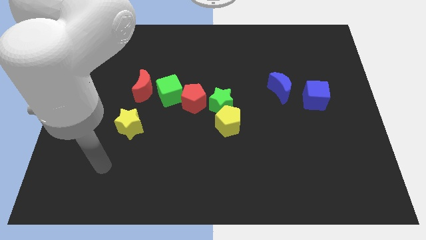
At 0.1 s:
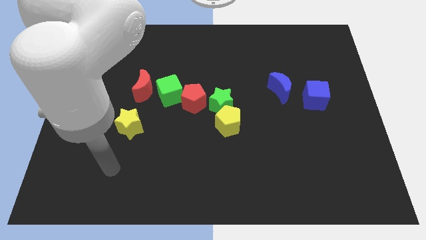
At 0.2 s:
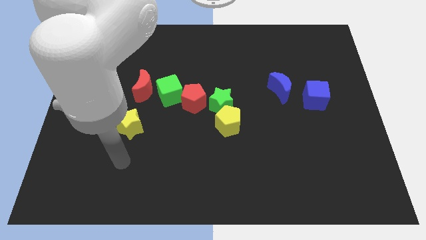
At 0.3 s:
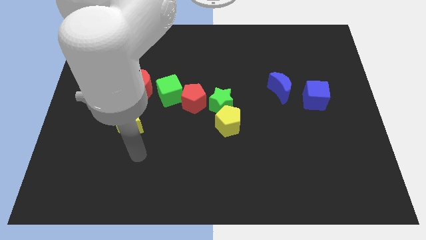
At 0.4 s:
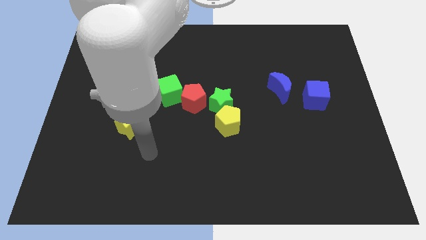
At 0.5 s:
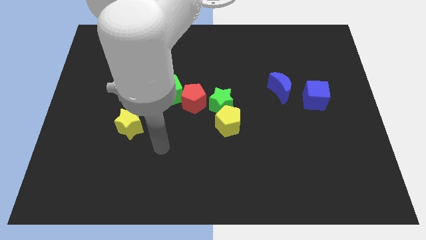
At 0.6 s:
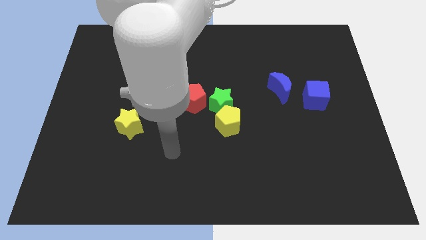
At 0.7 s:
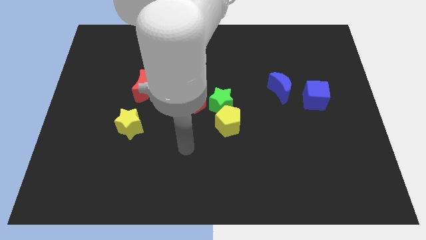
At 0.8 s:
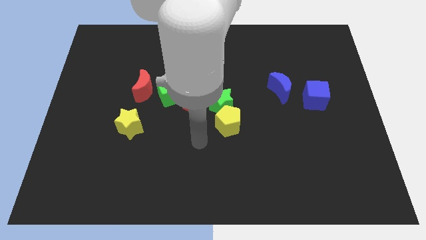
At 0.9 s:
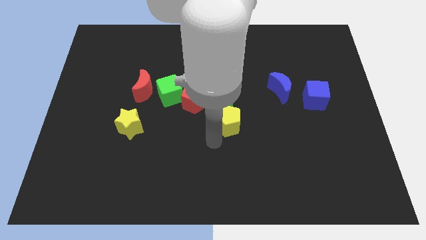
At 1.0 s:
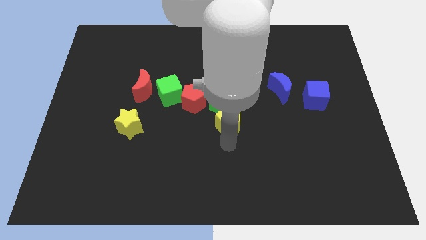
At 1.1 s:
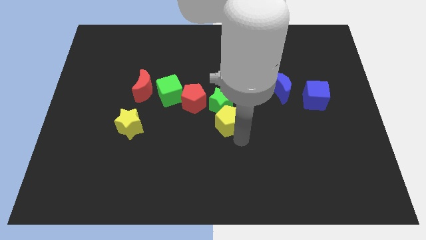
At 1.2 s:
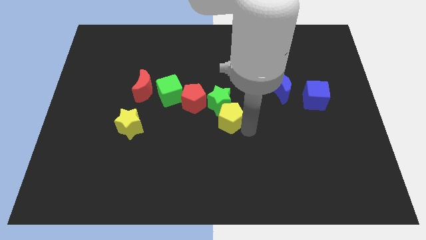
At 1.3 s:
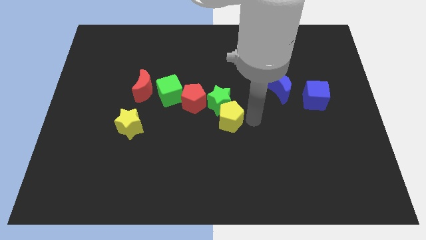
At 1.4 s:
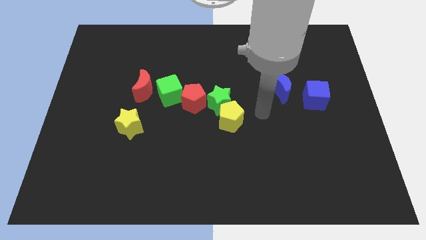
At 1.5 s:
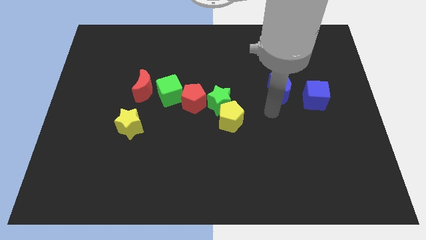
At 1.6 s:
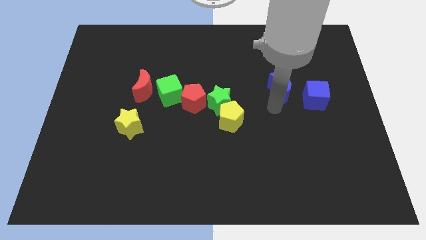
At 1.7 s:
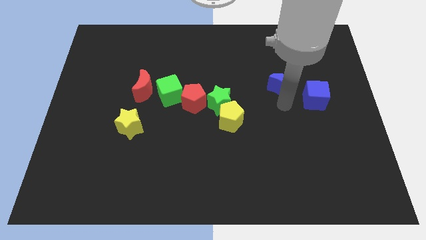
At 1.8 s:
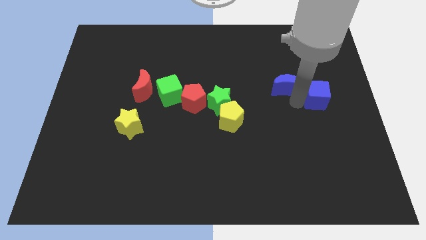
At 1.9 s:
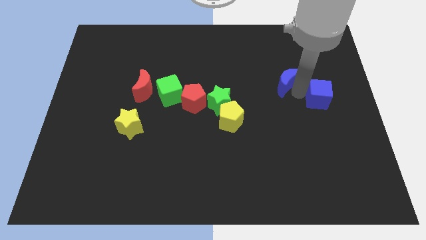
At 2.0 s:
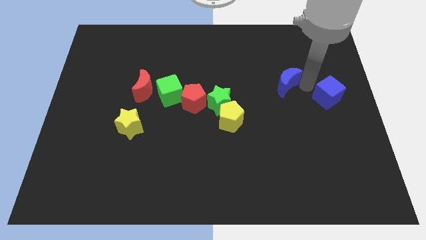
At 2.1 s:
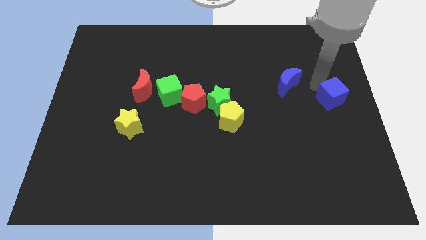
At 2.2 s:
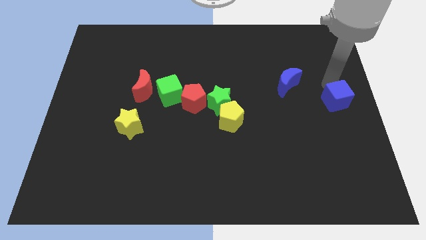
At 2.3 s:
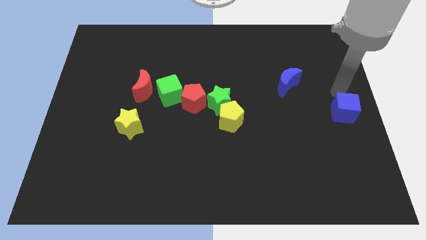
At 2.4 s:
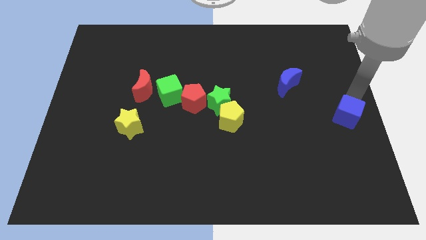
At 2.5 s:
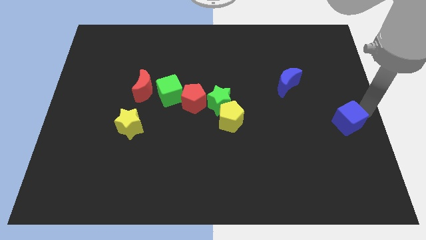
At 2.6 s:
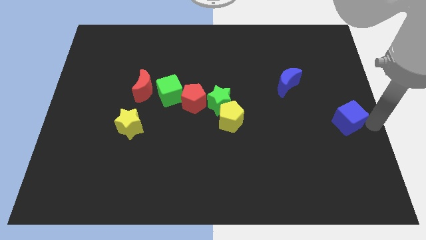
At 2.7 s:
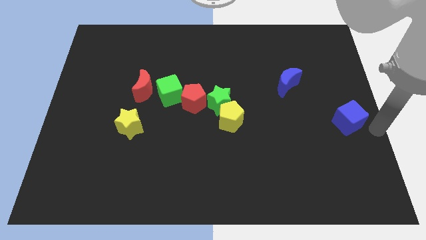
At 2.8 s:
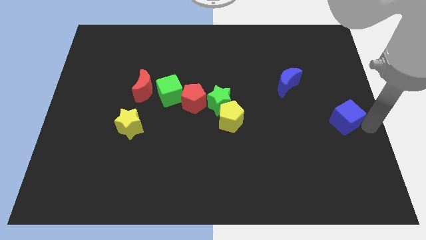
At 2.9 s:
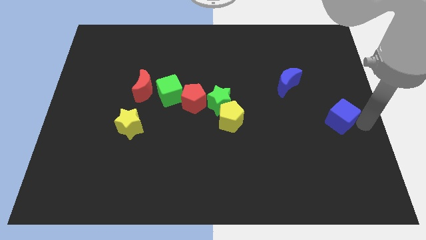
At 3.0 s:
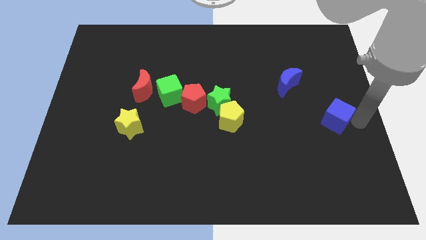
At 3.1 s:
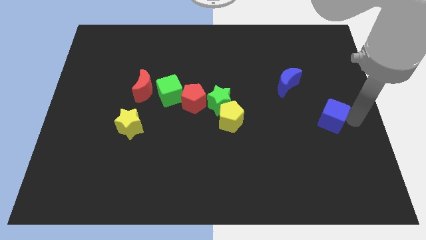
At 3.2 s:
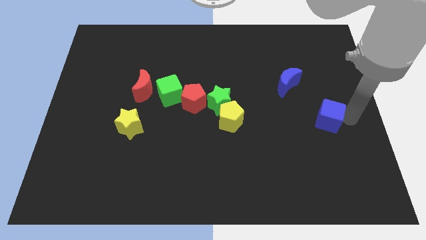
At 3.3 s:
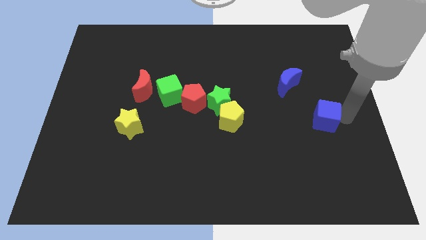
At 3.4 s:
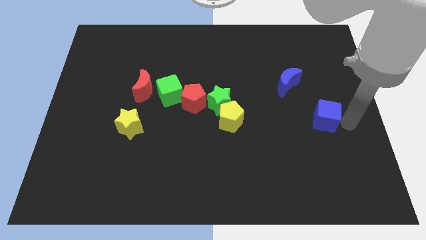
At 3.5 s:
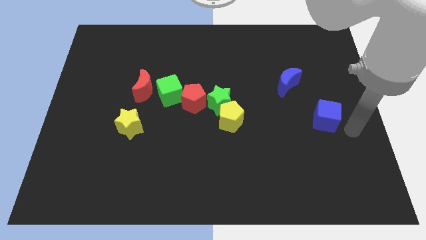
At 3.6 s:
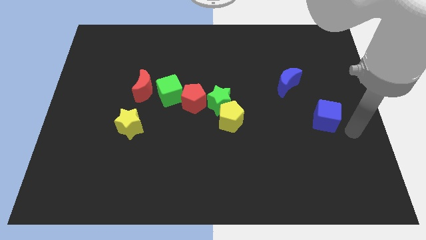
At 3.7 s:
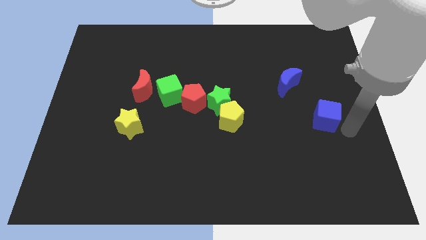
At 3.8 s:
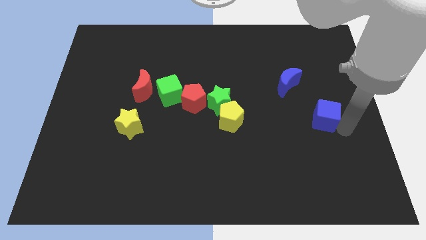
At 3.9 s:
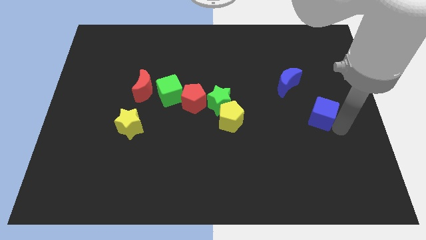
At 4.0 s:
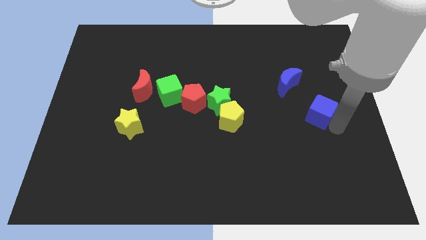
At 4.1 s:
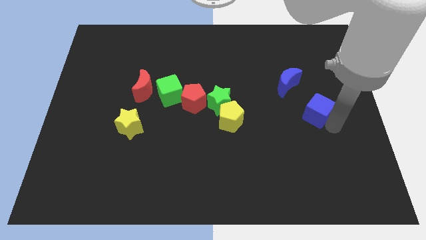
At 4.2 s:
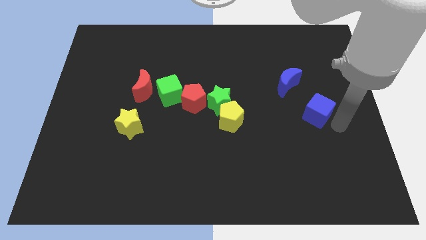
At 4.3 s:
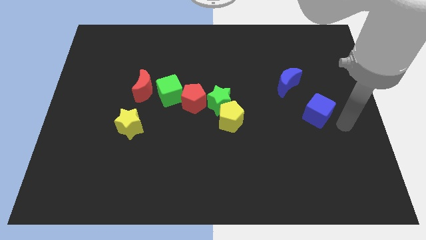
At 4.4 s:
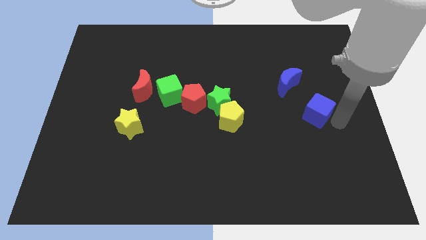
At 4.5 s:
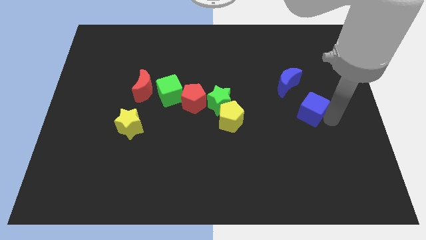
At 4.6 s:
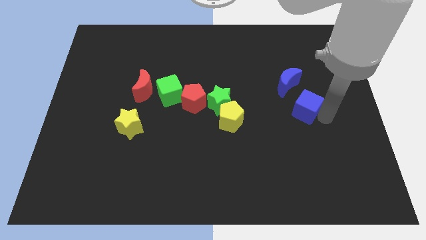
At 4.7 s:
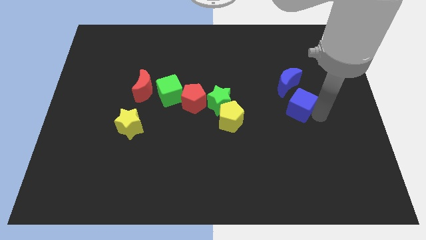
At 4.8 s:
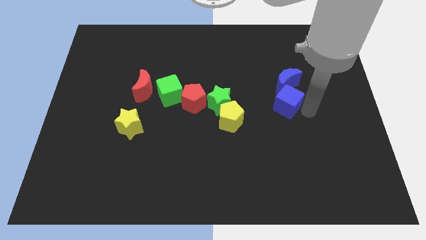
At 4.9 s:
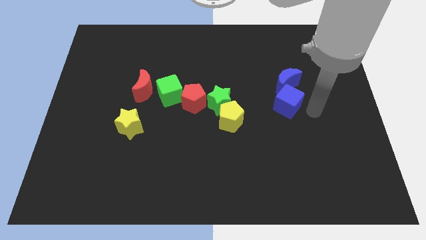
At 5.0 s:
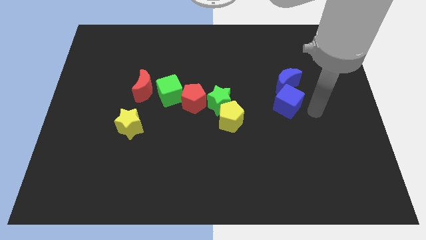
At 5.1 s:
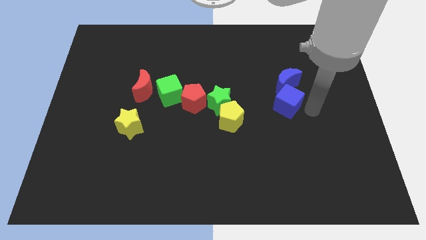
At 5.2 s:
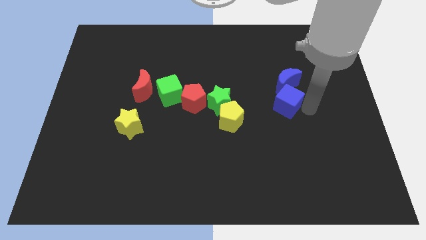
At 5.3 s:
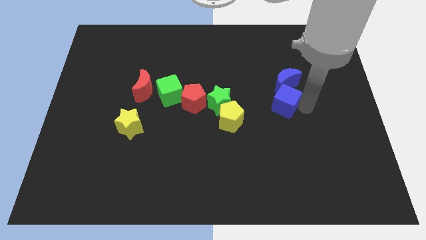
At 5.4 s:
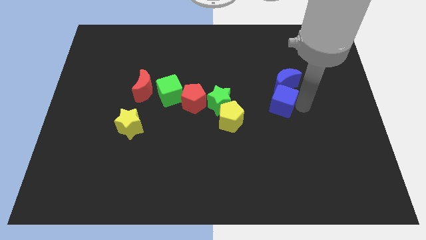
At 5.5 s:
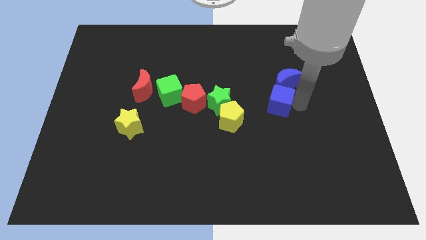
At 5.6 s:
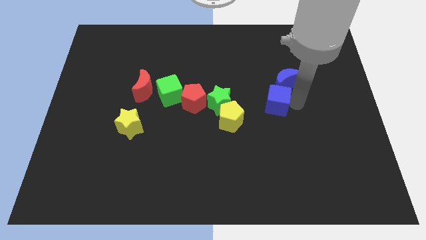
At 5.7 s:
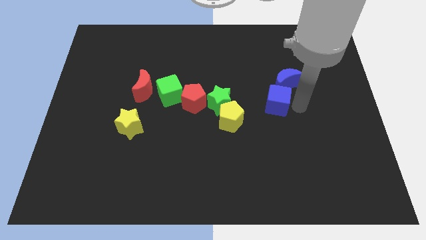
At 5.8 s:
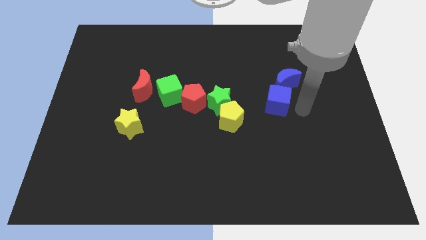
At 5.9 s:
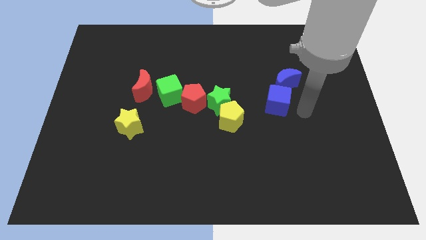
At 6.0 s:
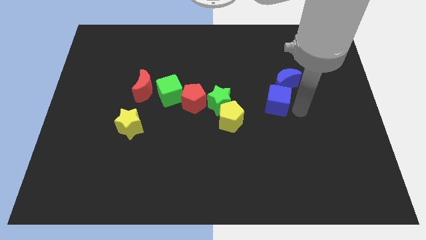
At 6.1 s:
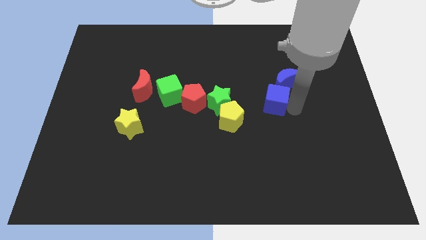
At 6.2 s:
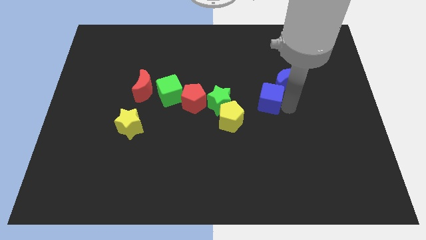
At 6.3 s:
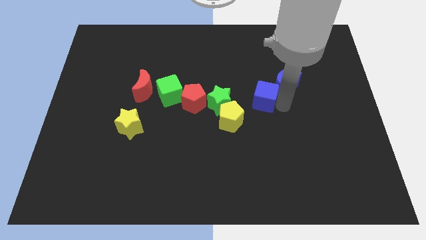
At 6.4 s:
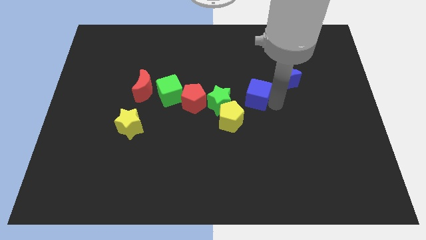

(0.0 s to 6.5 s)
put the blue cube to the top right side of the green star
